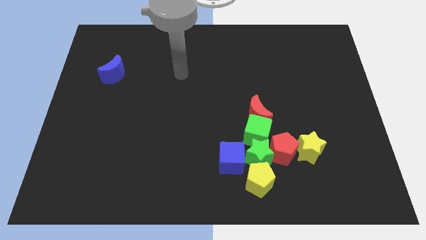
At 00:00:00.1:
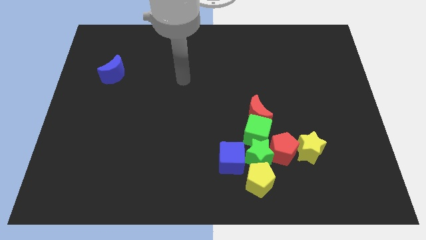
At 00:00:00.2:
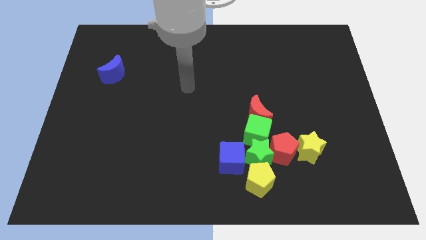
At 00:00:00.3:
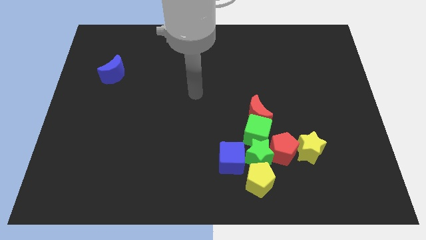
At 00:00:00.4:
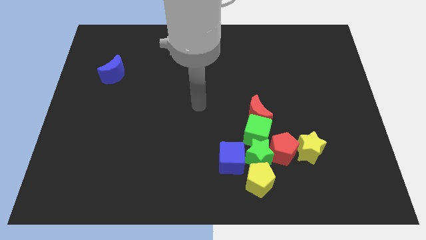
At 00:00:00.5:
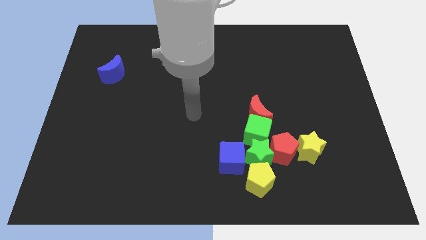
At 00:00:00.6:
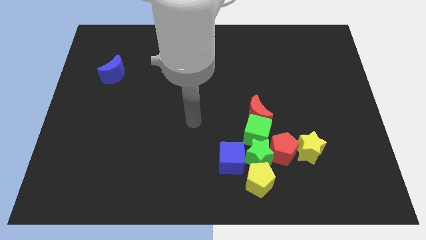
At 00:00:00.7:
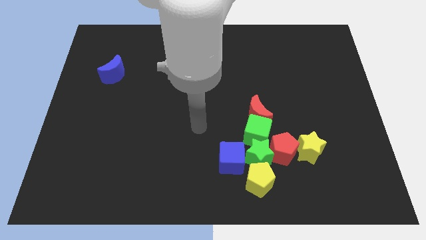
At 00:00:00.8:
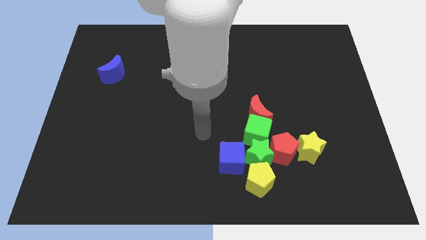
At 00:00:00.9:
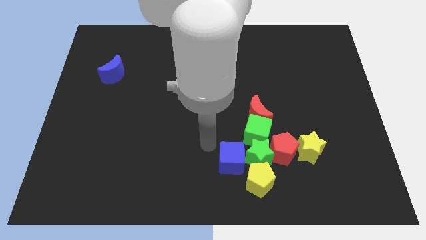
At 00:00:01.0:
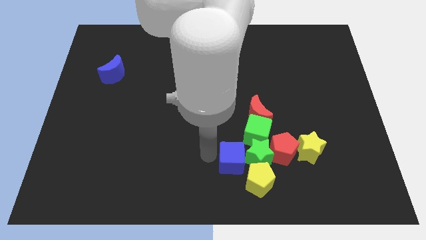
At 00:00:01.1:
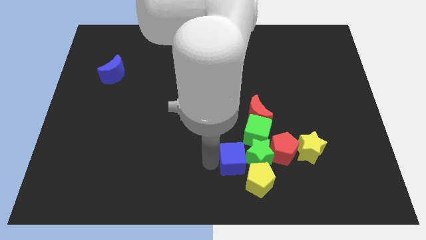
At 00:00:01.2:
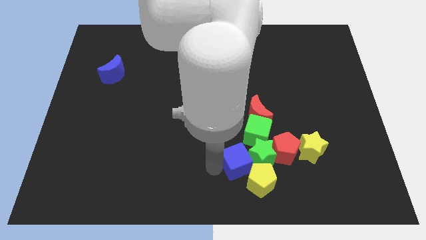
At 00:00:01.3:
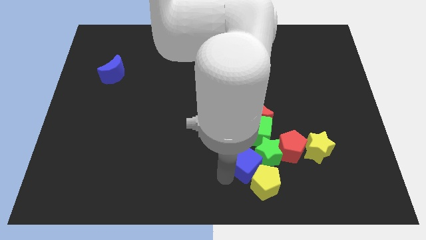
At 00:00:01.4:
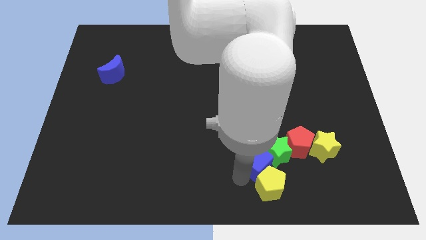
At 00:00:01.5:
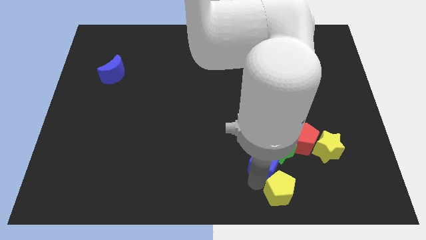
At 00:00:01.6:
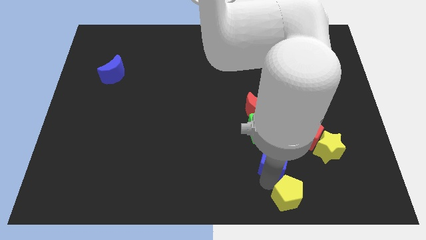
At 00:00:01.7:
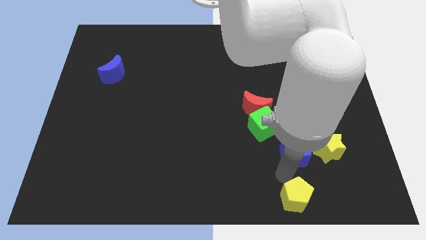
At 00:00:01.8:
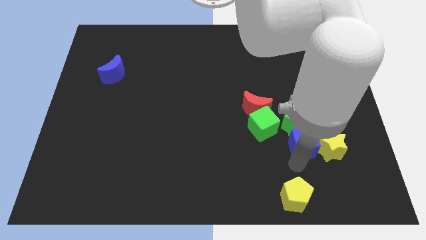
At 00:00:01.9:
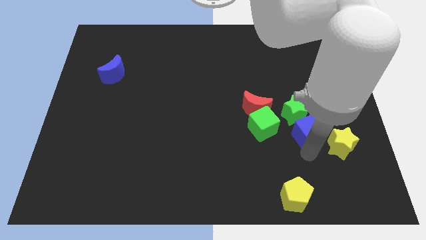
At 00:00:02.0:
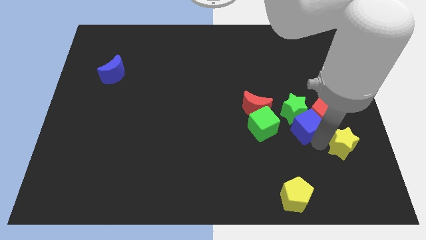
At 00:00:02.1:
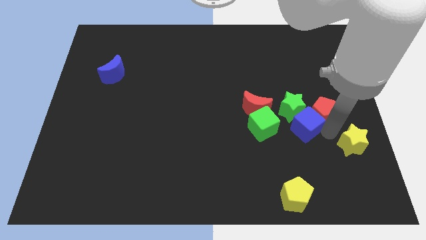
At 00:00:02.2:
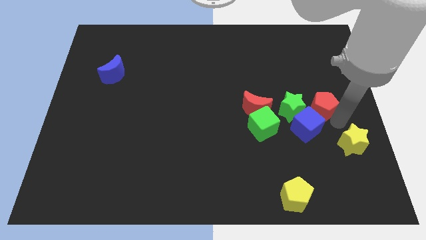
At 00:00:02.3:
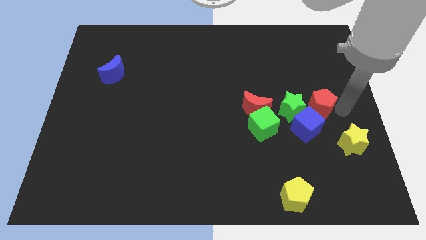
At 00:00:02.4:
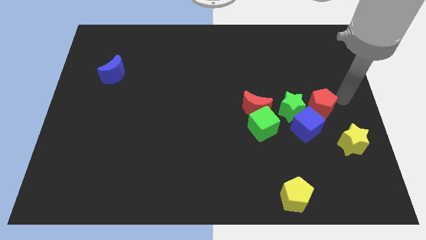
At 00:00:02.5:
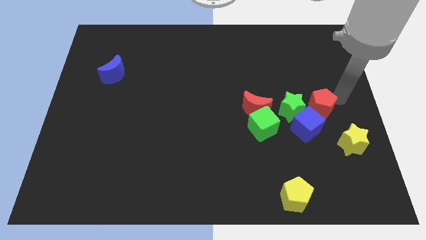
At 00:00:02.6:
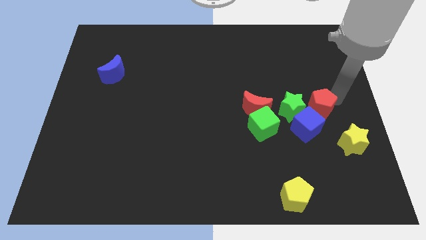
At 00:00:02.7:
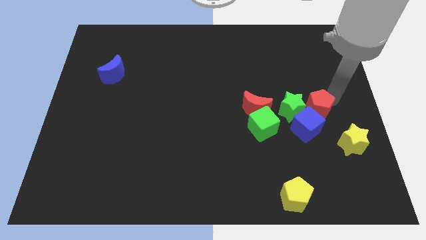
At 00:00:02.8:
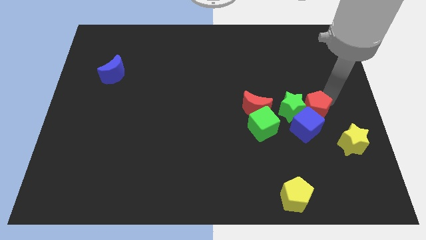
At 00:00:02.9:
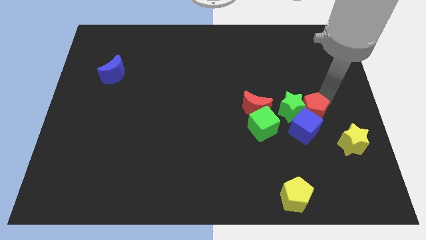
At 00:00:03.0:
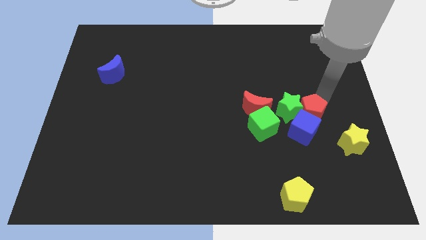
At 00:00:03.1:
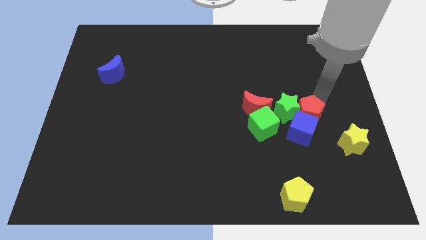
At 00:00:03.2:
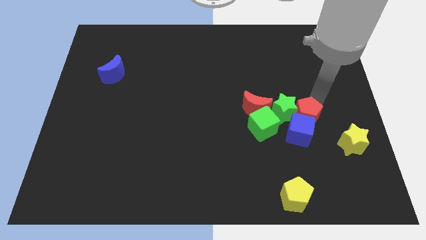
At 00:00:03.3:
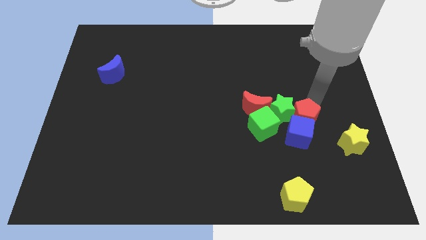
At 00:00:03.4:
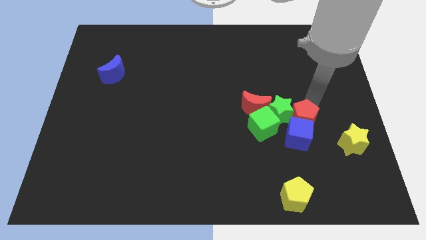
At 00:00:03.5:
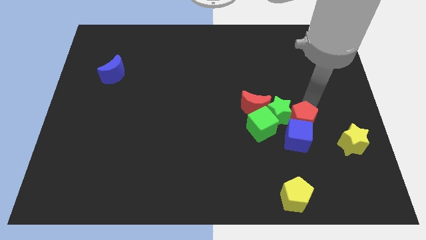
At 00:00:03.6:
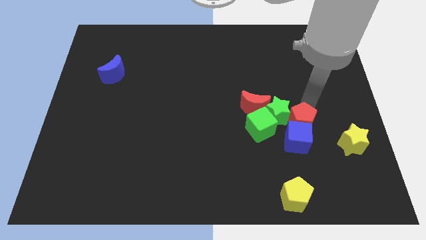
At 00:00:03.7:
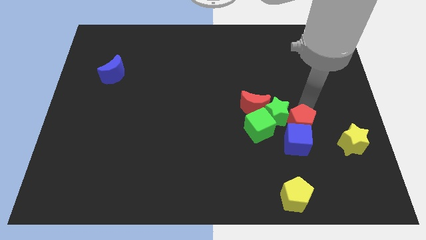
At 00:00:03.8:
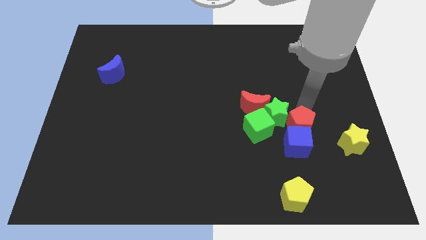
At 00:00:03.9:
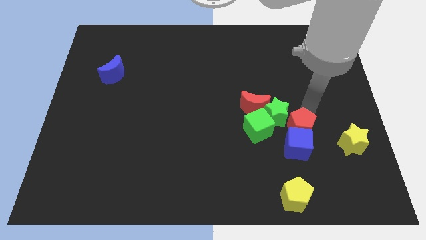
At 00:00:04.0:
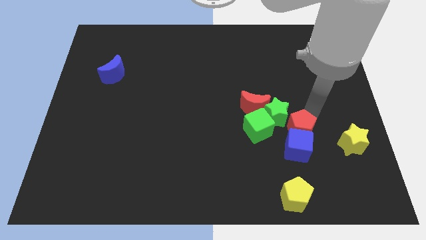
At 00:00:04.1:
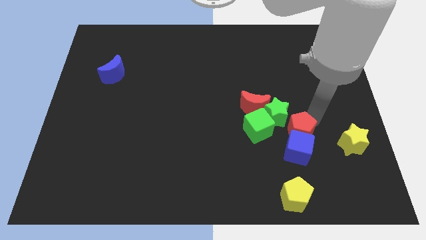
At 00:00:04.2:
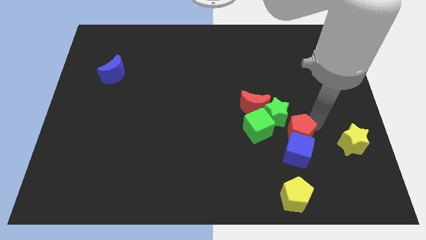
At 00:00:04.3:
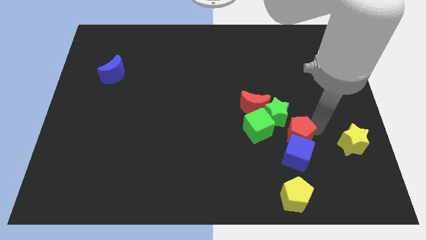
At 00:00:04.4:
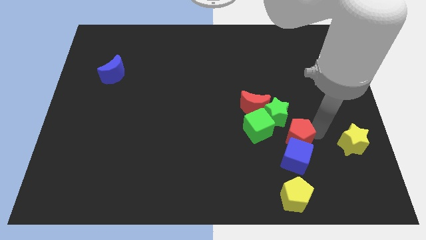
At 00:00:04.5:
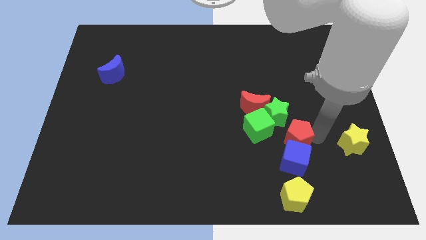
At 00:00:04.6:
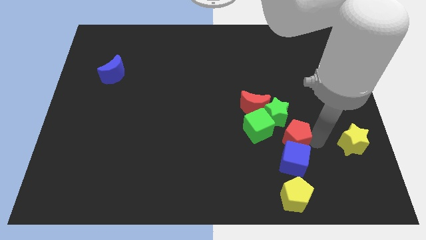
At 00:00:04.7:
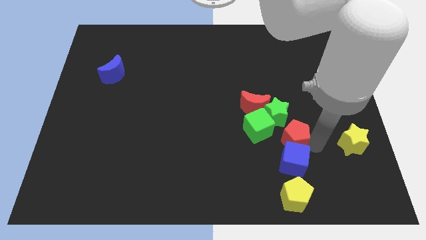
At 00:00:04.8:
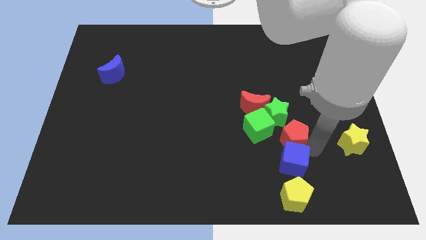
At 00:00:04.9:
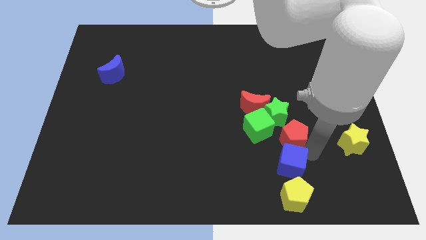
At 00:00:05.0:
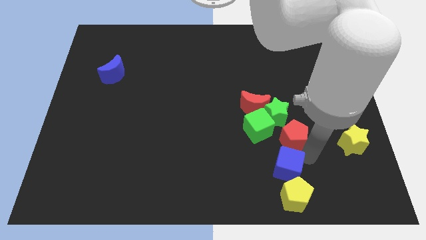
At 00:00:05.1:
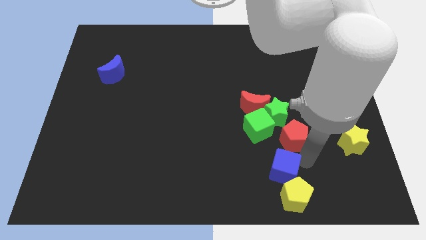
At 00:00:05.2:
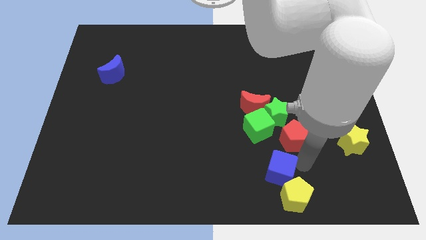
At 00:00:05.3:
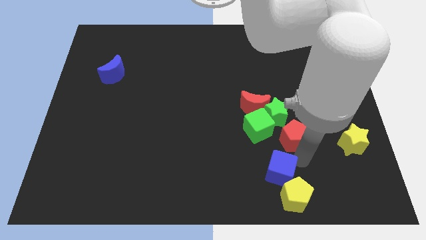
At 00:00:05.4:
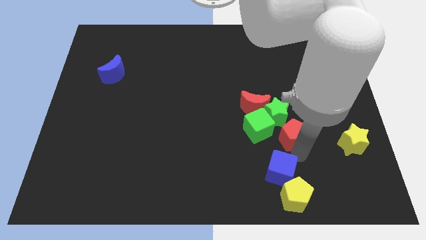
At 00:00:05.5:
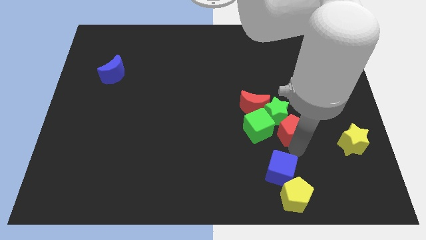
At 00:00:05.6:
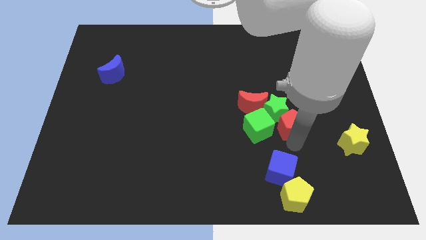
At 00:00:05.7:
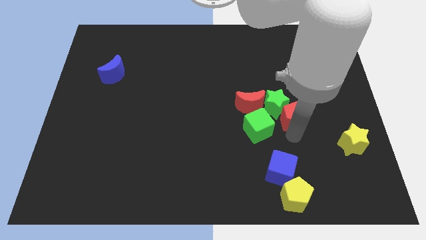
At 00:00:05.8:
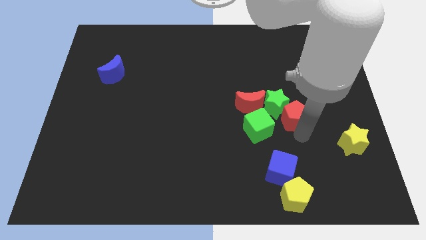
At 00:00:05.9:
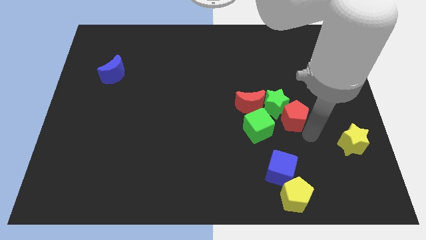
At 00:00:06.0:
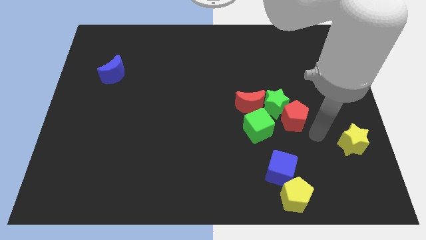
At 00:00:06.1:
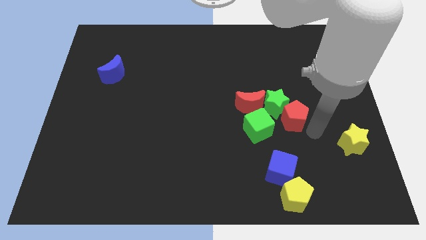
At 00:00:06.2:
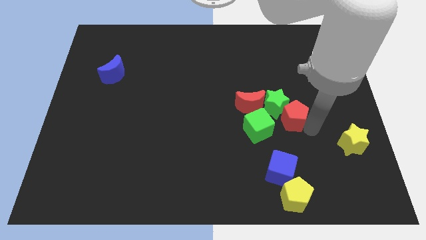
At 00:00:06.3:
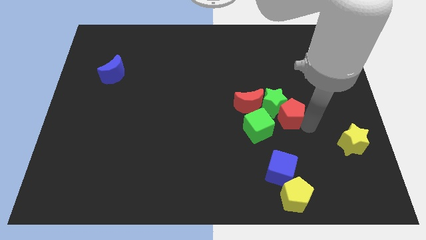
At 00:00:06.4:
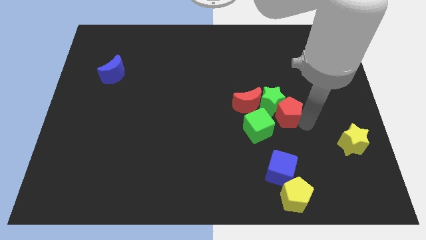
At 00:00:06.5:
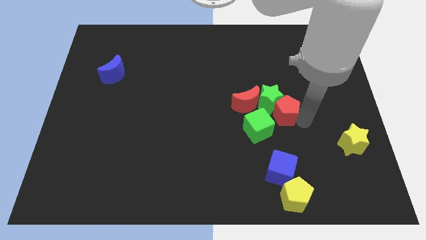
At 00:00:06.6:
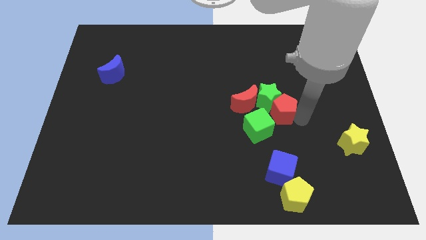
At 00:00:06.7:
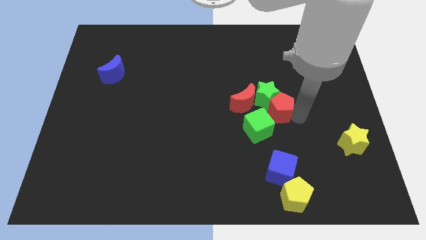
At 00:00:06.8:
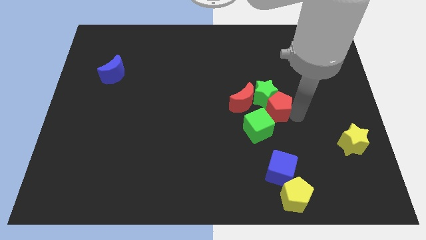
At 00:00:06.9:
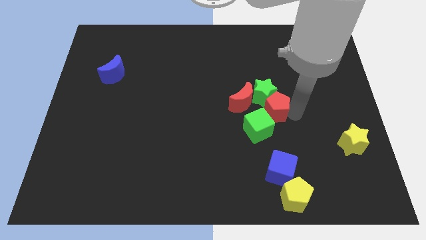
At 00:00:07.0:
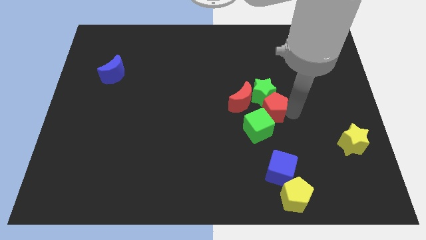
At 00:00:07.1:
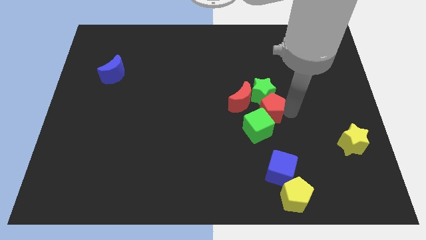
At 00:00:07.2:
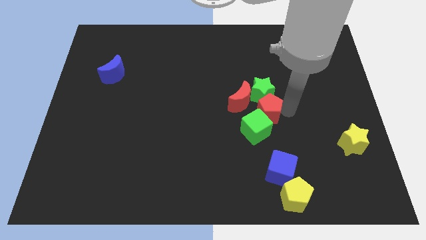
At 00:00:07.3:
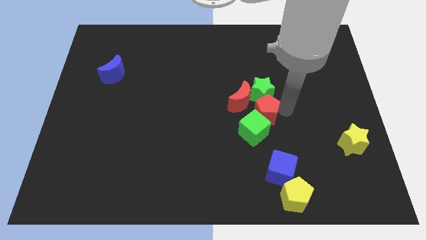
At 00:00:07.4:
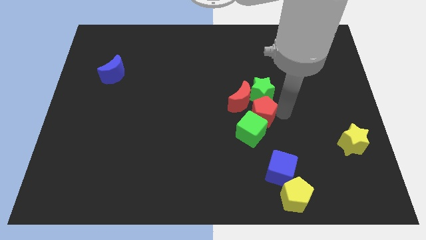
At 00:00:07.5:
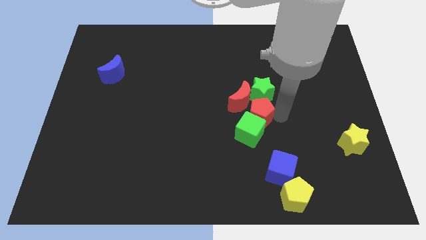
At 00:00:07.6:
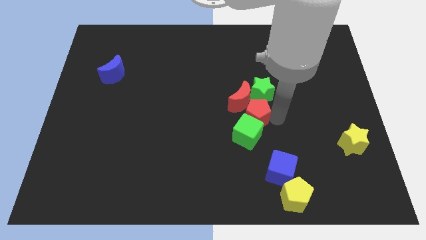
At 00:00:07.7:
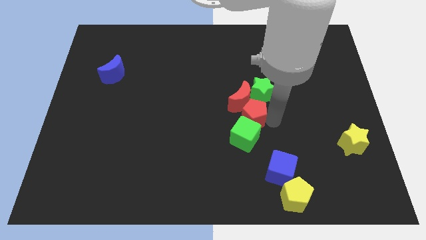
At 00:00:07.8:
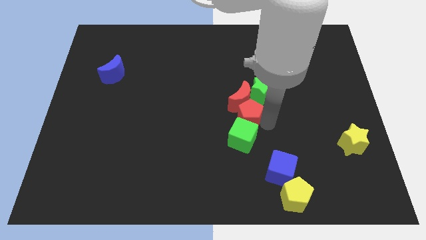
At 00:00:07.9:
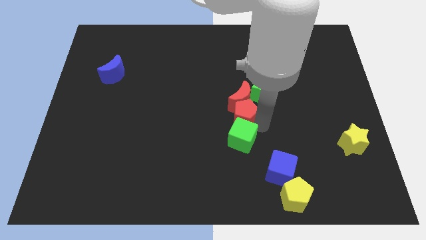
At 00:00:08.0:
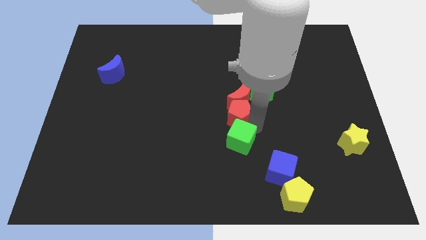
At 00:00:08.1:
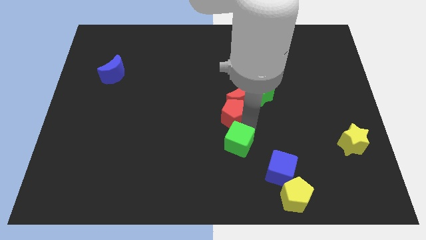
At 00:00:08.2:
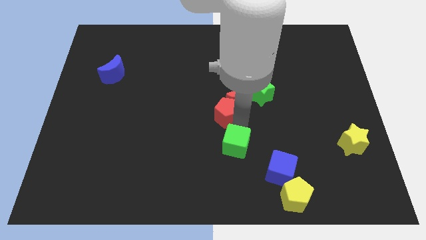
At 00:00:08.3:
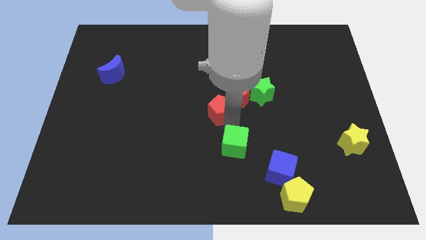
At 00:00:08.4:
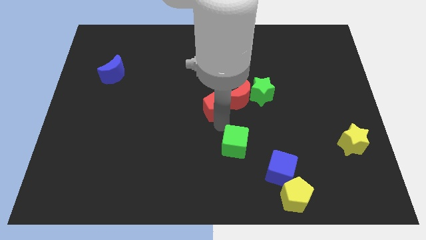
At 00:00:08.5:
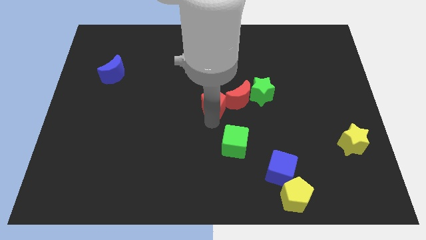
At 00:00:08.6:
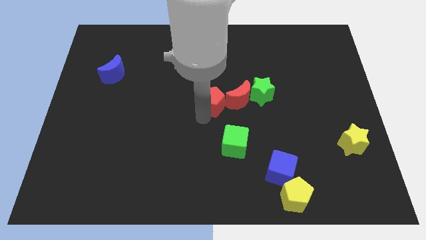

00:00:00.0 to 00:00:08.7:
move the red pentagon up and then to the left
